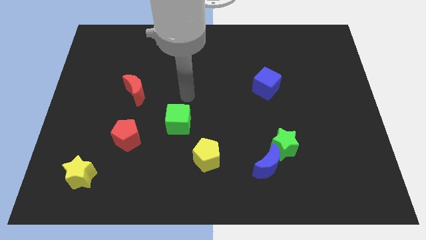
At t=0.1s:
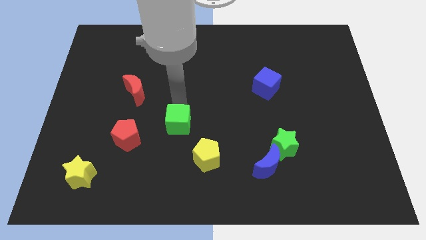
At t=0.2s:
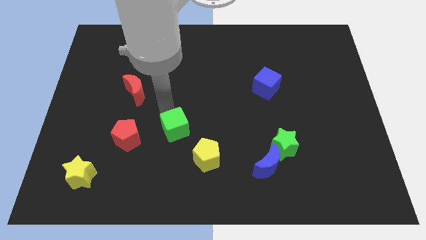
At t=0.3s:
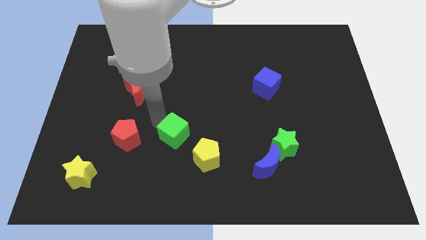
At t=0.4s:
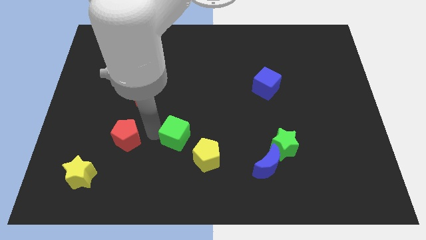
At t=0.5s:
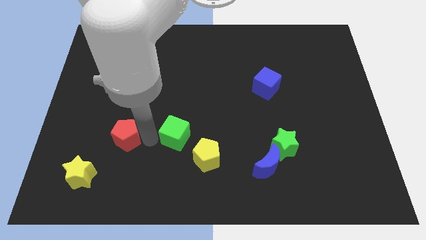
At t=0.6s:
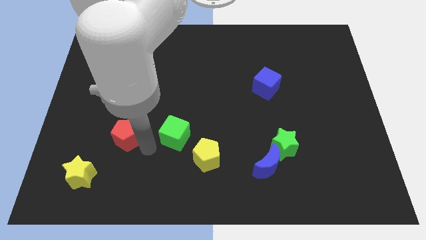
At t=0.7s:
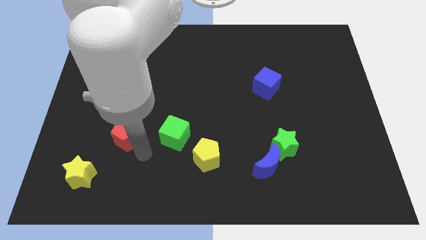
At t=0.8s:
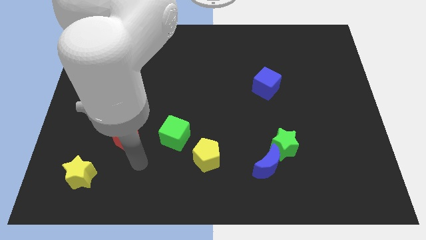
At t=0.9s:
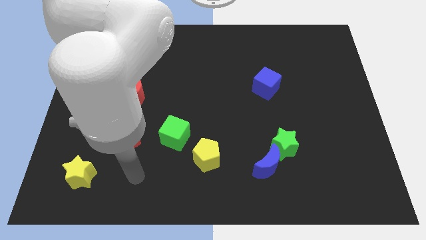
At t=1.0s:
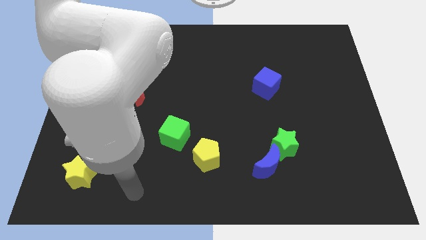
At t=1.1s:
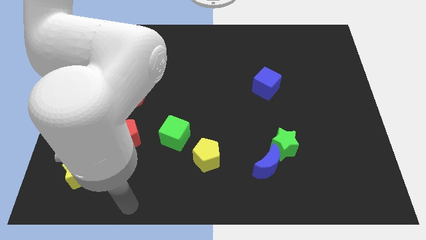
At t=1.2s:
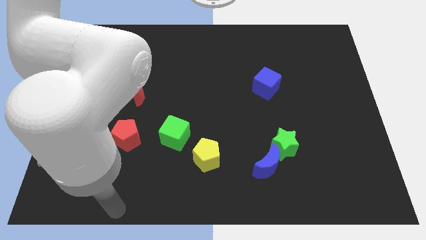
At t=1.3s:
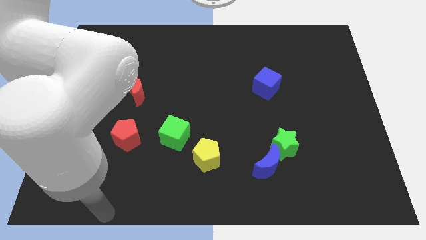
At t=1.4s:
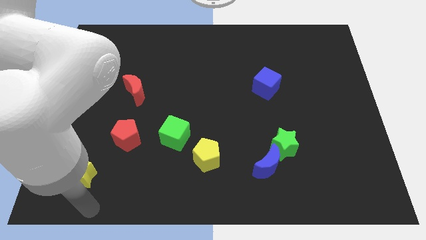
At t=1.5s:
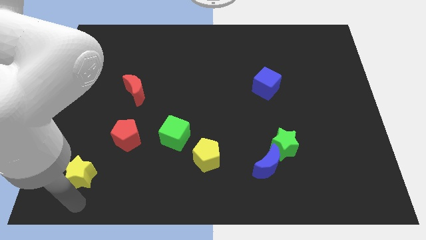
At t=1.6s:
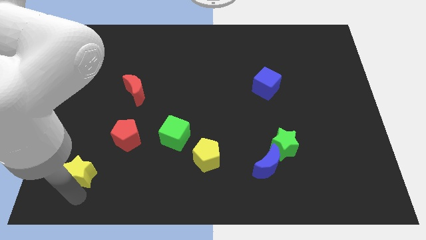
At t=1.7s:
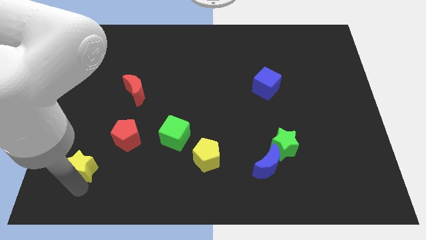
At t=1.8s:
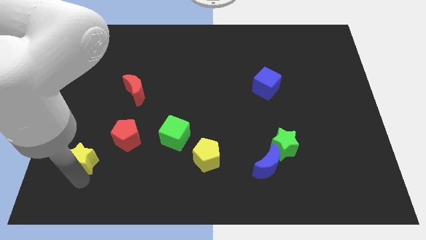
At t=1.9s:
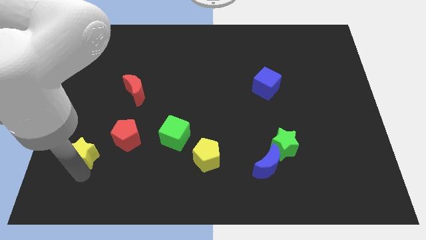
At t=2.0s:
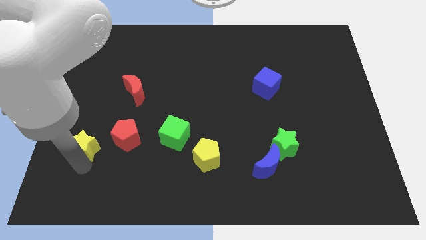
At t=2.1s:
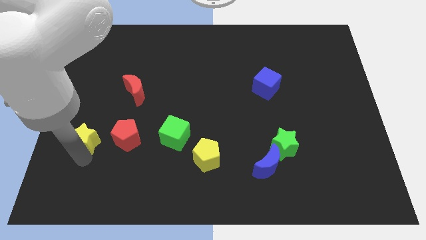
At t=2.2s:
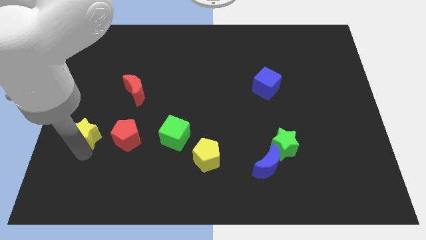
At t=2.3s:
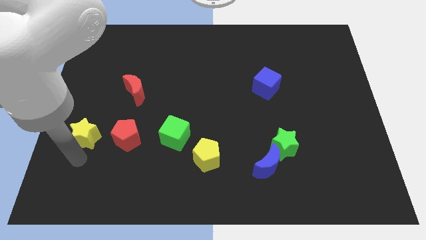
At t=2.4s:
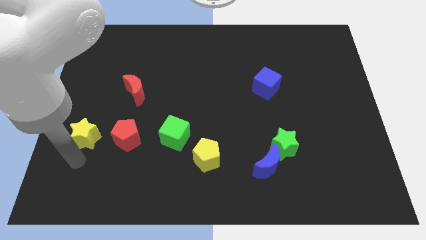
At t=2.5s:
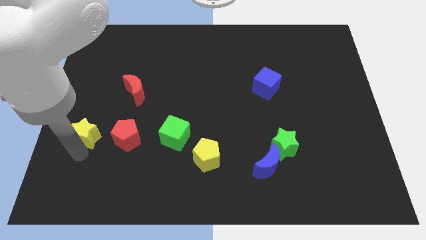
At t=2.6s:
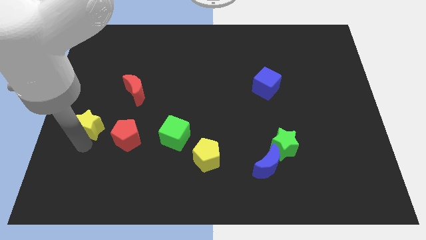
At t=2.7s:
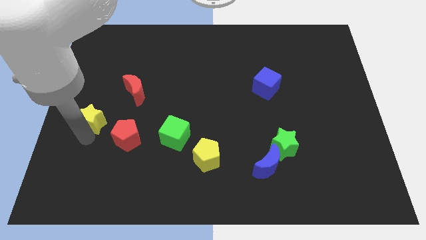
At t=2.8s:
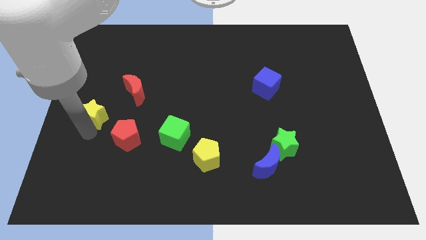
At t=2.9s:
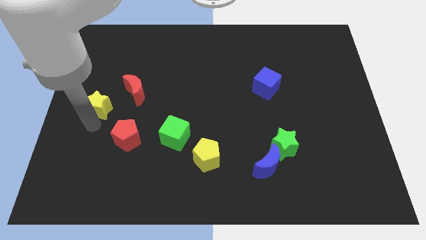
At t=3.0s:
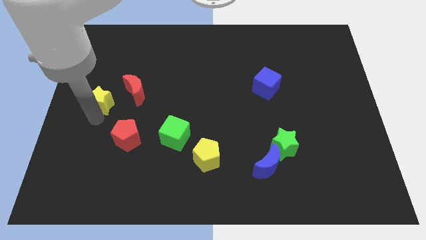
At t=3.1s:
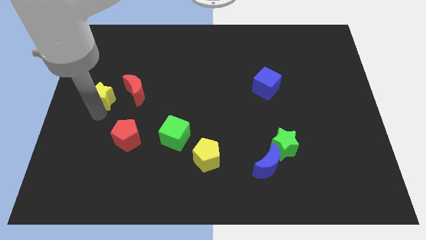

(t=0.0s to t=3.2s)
push the yellow star up

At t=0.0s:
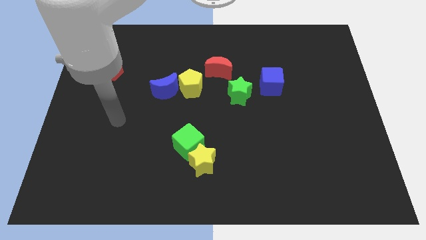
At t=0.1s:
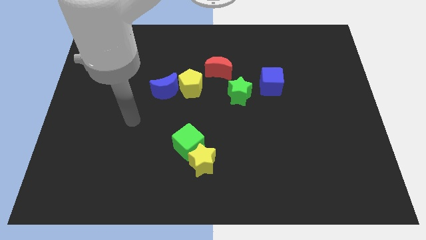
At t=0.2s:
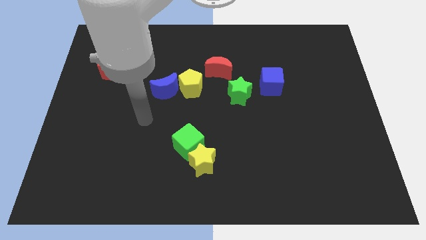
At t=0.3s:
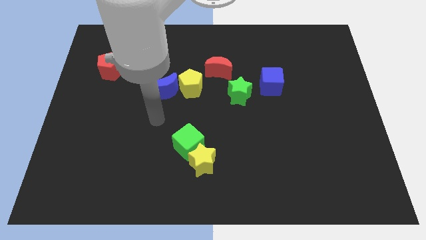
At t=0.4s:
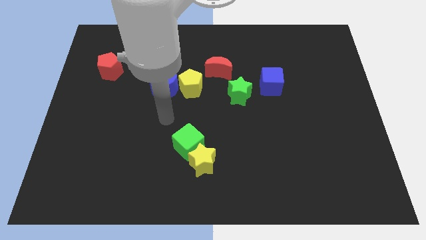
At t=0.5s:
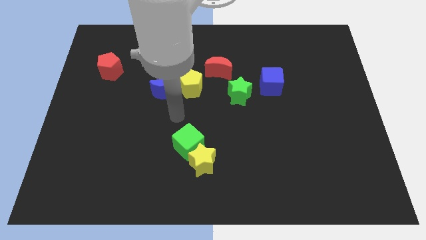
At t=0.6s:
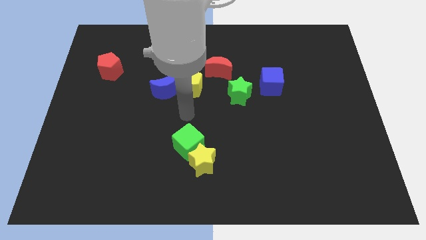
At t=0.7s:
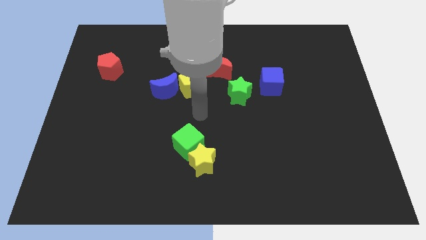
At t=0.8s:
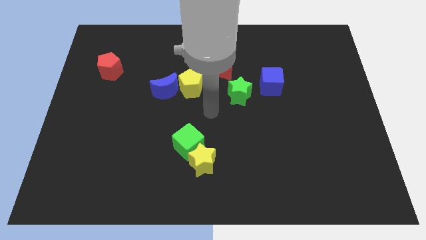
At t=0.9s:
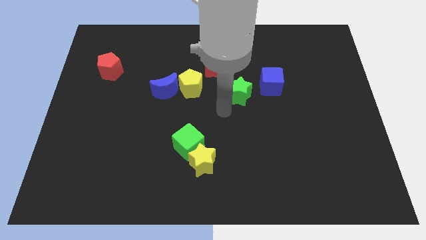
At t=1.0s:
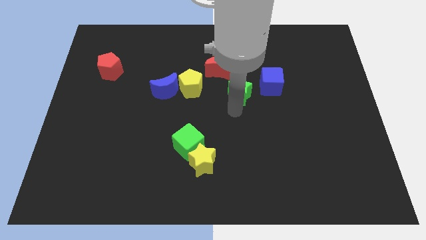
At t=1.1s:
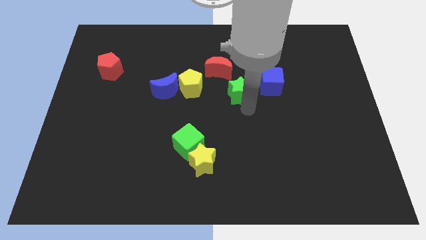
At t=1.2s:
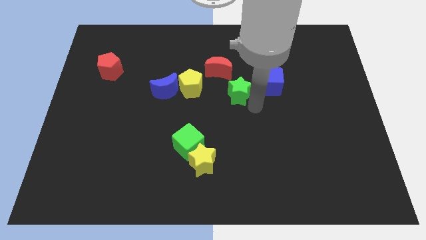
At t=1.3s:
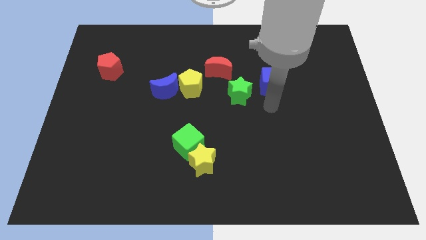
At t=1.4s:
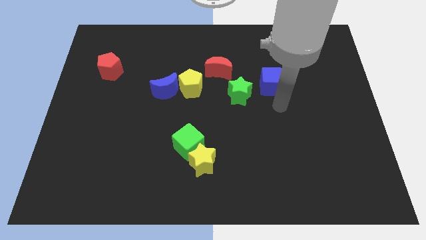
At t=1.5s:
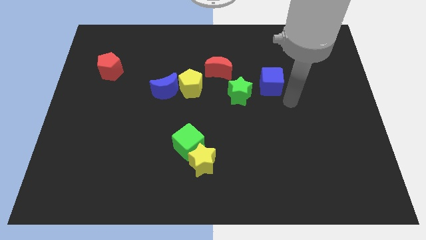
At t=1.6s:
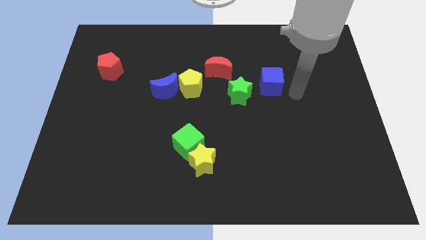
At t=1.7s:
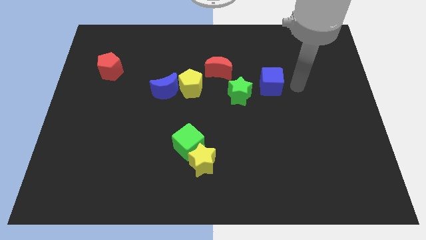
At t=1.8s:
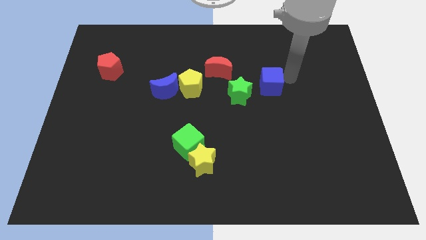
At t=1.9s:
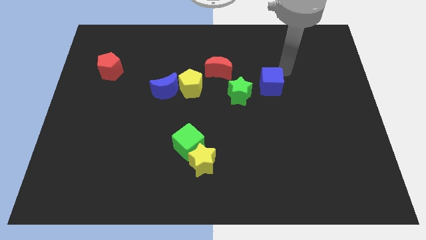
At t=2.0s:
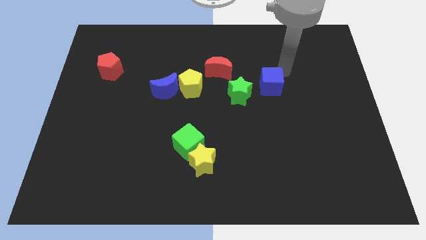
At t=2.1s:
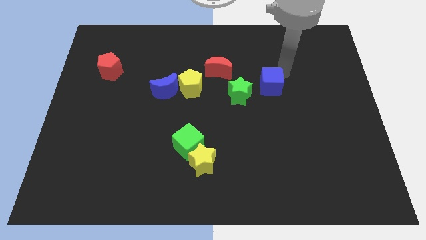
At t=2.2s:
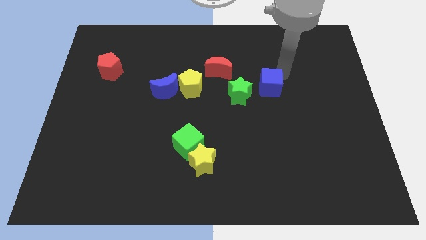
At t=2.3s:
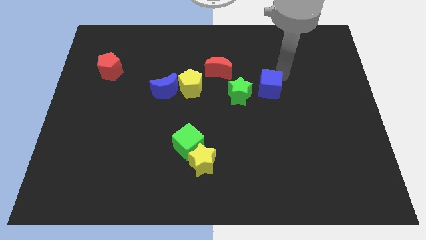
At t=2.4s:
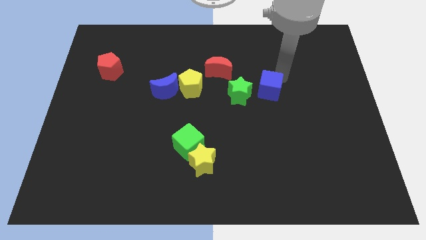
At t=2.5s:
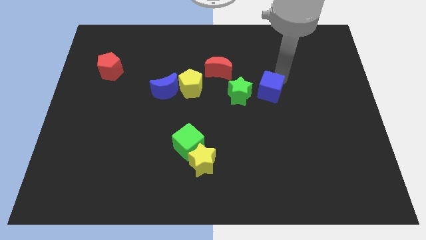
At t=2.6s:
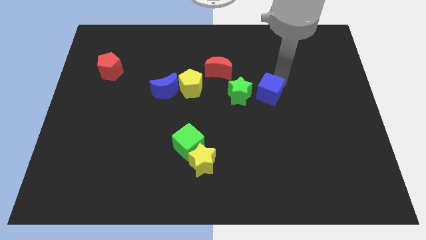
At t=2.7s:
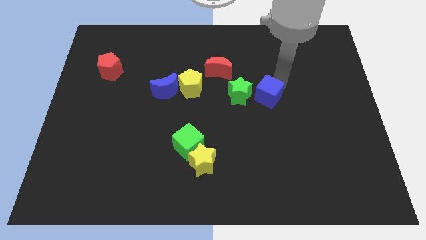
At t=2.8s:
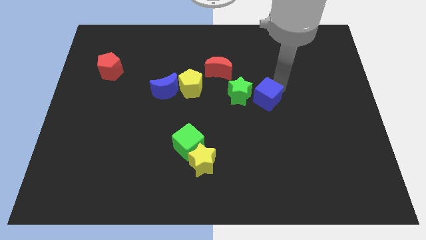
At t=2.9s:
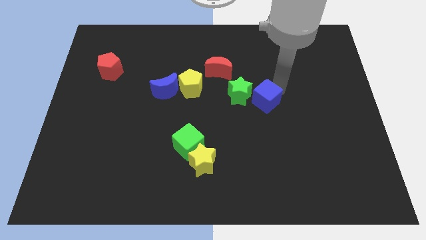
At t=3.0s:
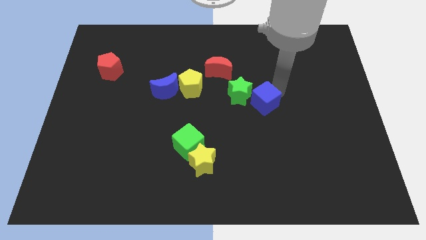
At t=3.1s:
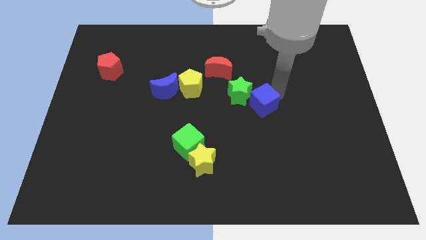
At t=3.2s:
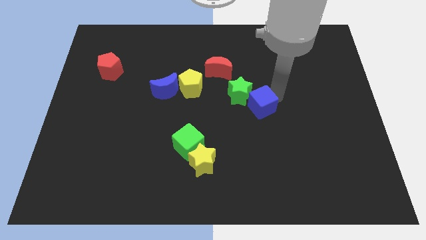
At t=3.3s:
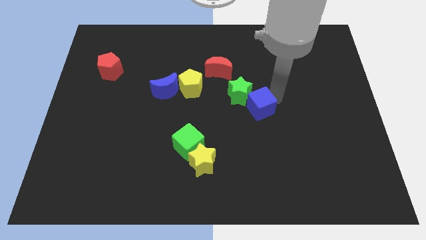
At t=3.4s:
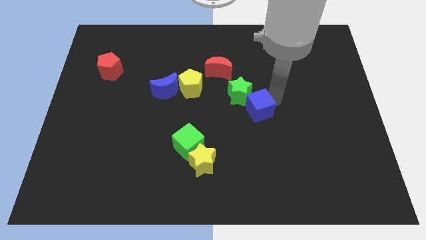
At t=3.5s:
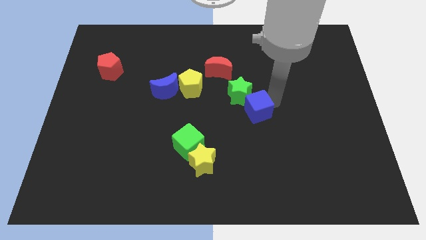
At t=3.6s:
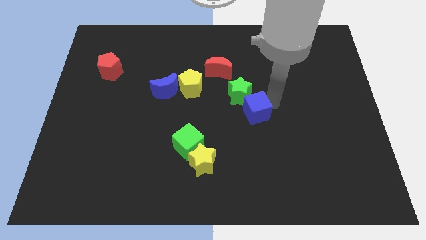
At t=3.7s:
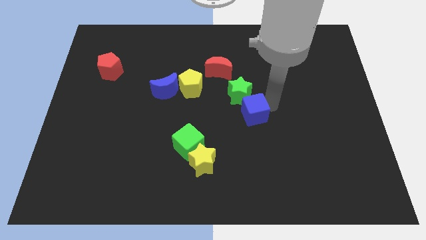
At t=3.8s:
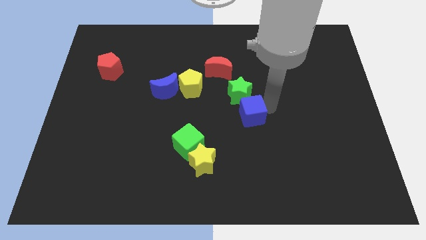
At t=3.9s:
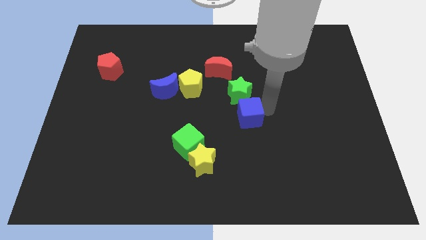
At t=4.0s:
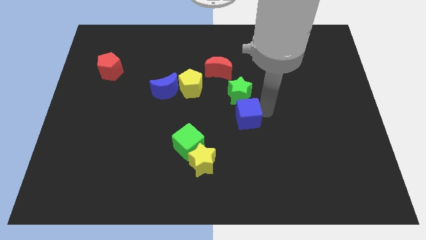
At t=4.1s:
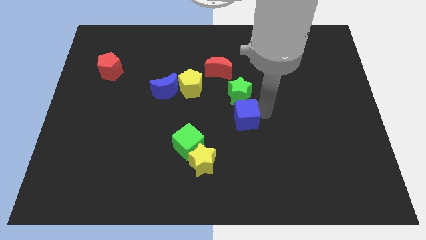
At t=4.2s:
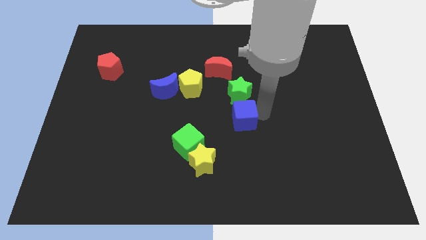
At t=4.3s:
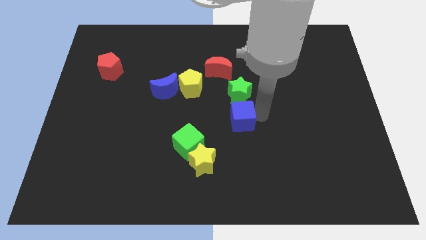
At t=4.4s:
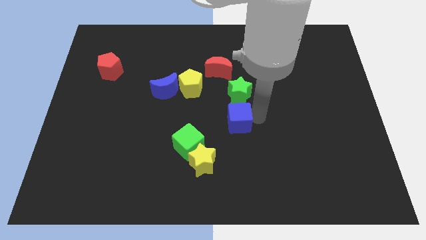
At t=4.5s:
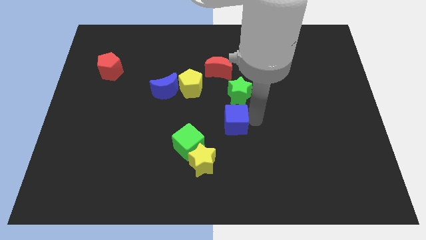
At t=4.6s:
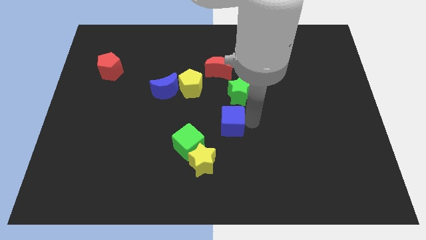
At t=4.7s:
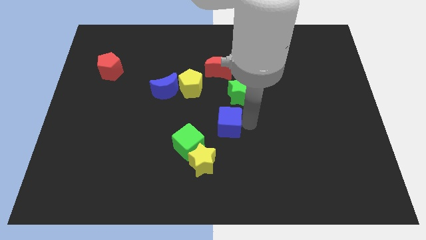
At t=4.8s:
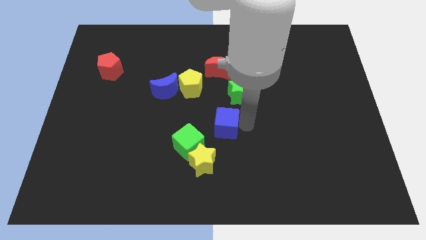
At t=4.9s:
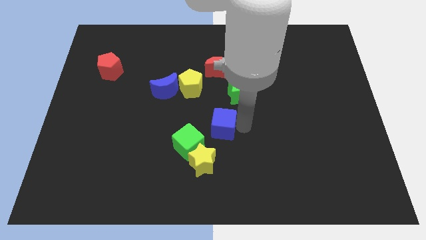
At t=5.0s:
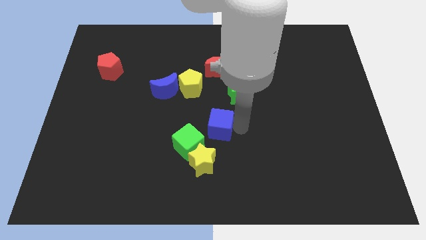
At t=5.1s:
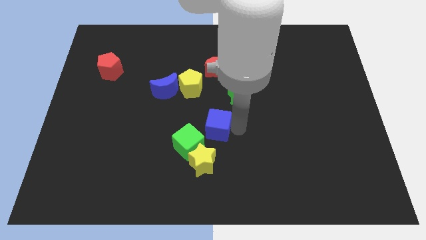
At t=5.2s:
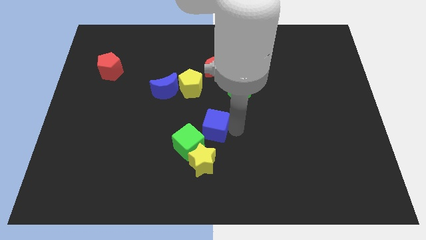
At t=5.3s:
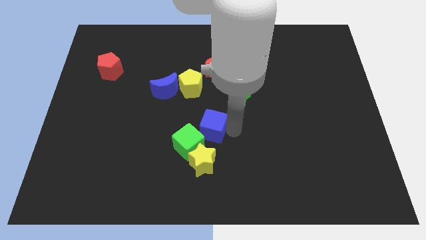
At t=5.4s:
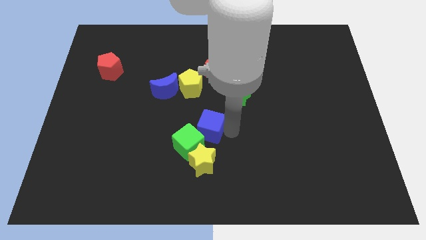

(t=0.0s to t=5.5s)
slide the blue cube down and to the left diagonally
